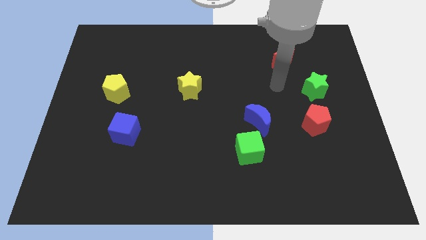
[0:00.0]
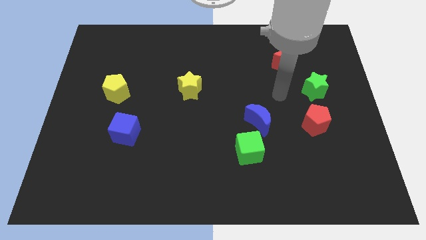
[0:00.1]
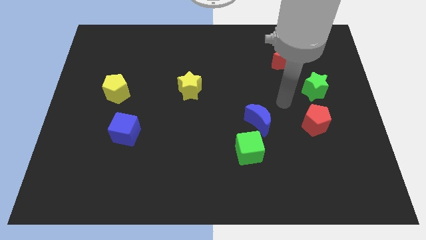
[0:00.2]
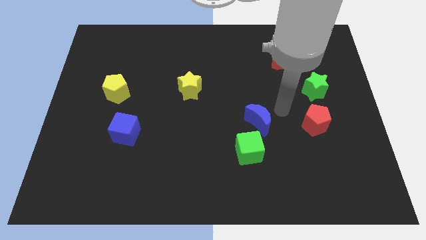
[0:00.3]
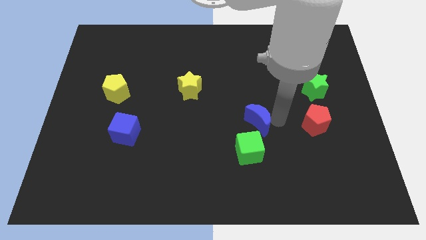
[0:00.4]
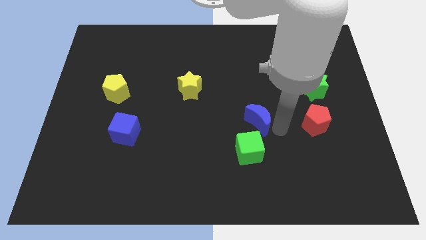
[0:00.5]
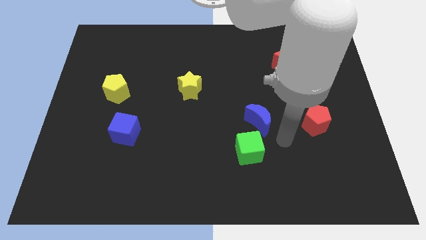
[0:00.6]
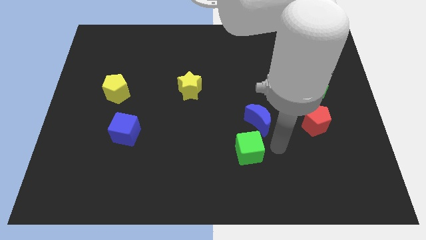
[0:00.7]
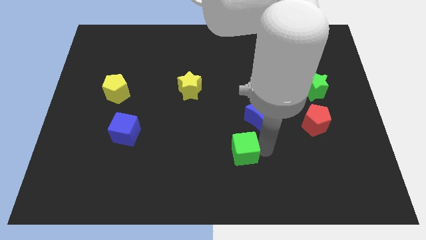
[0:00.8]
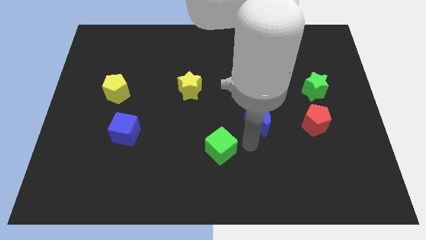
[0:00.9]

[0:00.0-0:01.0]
pull the blue moon apart from the green cube

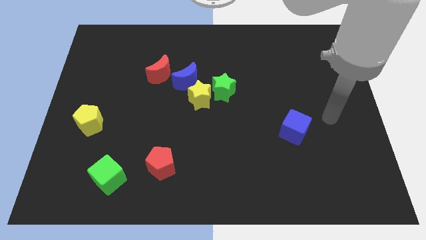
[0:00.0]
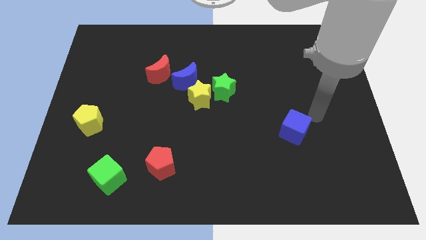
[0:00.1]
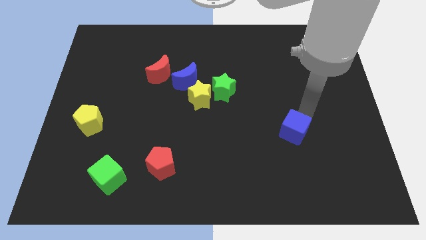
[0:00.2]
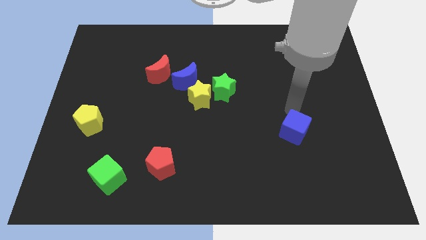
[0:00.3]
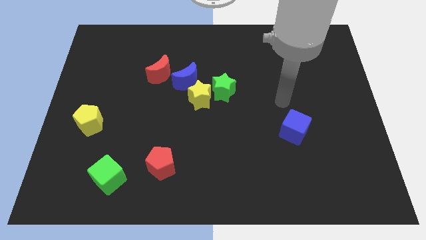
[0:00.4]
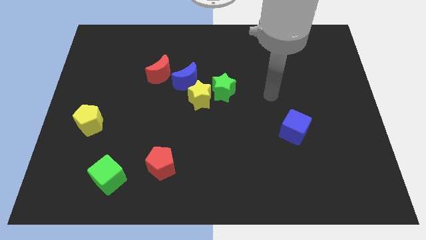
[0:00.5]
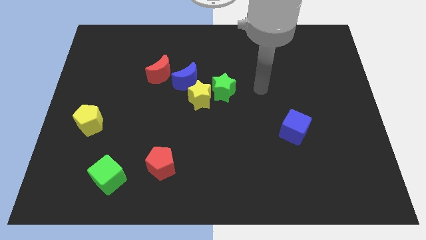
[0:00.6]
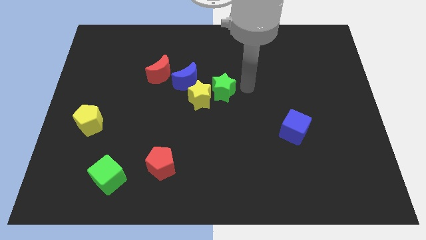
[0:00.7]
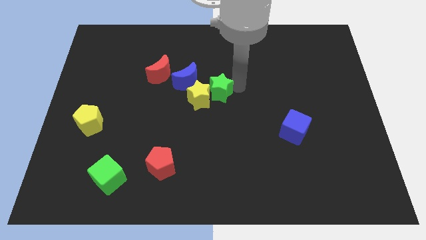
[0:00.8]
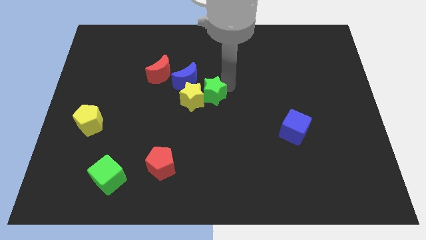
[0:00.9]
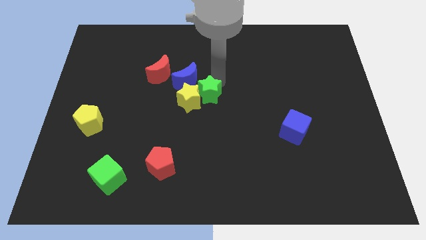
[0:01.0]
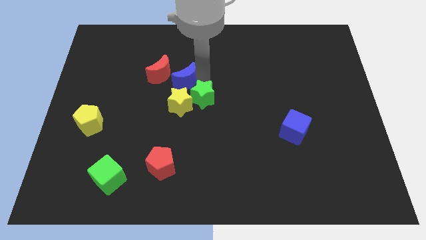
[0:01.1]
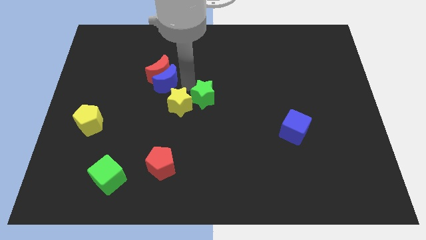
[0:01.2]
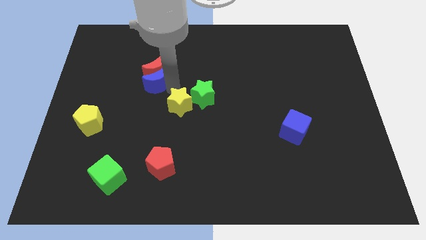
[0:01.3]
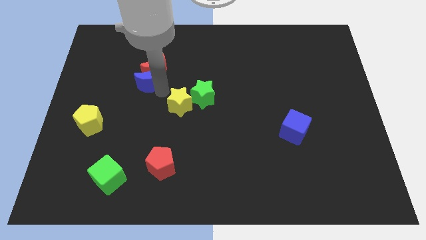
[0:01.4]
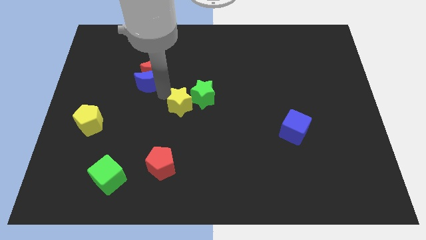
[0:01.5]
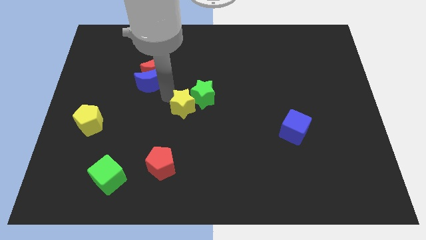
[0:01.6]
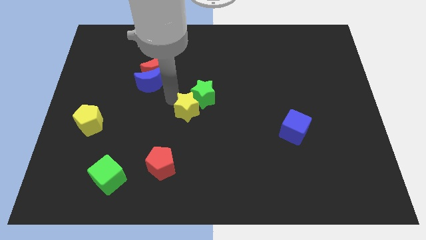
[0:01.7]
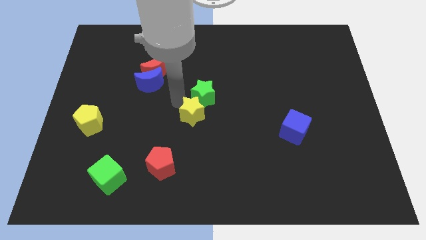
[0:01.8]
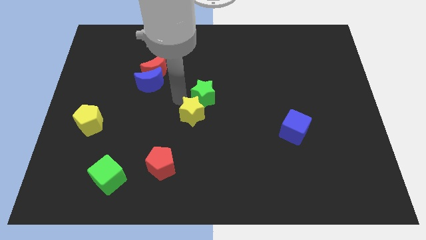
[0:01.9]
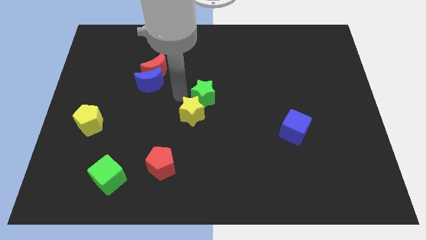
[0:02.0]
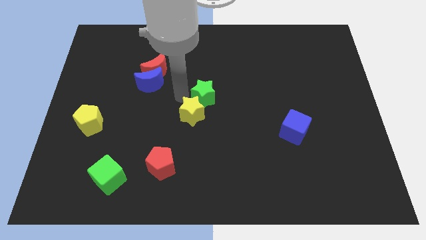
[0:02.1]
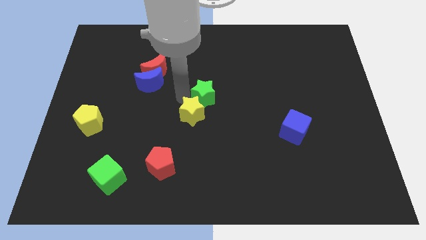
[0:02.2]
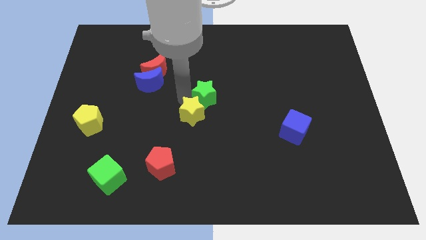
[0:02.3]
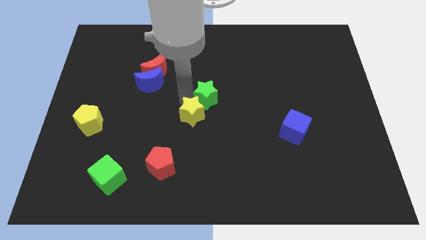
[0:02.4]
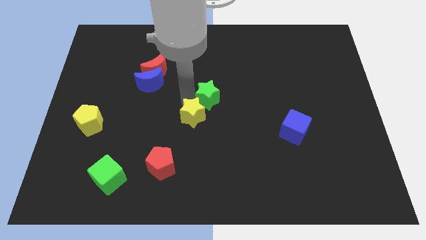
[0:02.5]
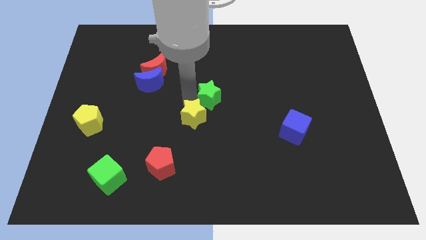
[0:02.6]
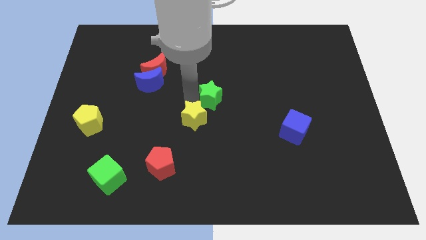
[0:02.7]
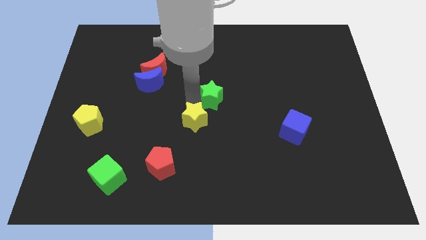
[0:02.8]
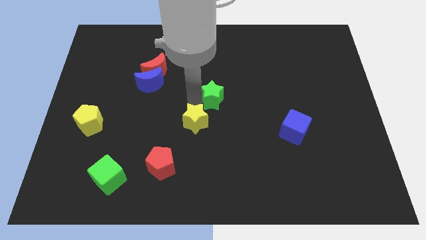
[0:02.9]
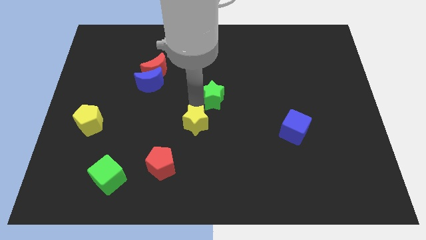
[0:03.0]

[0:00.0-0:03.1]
separate the yellow star from the green star and blue moon

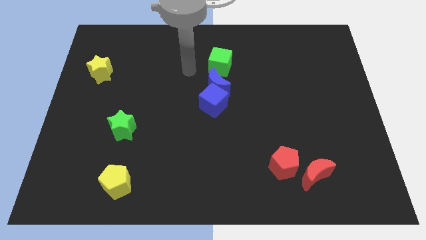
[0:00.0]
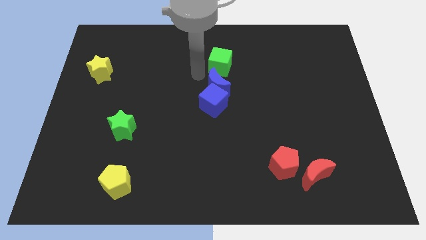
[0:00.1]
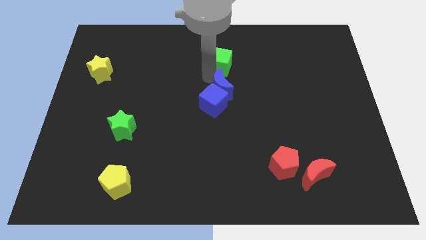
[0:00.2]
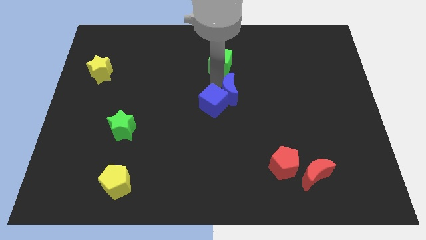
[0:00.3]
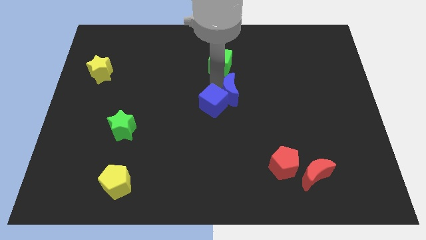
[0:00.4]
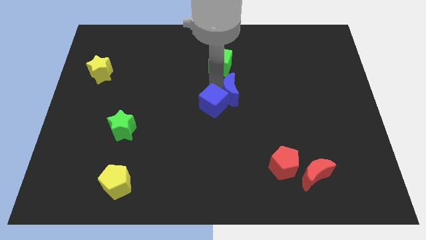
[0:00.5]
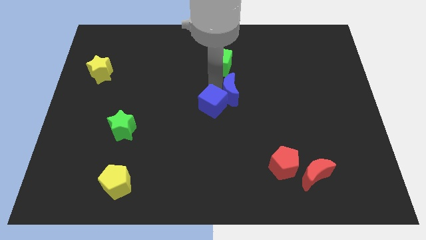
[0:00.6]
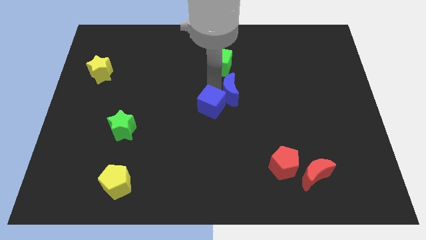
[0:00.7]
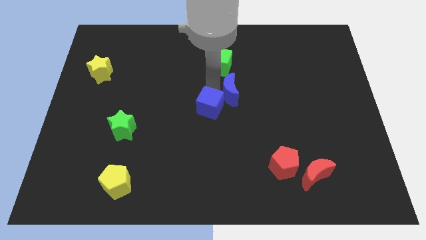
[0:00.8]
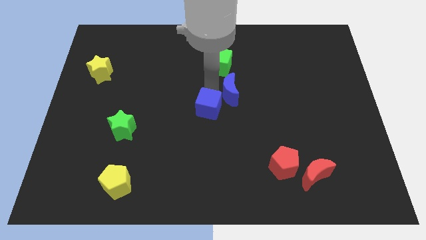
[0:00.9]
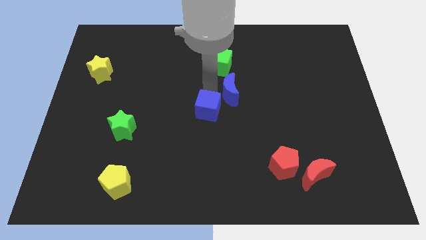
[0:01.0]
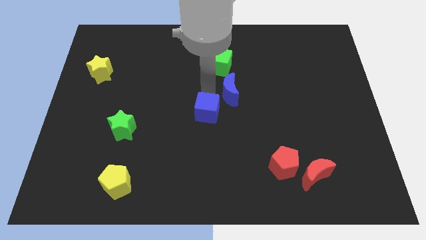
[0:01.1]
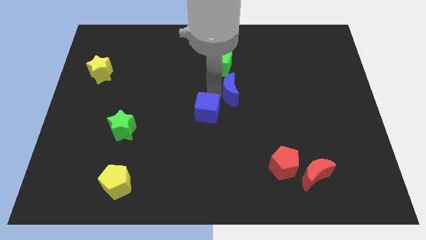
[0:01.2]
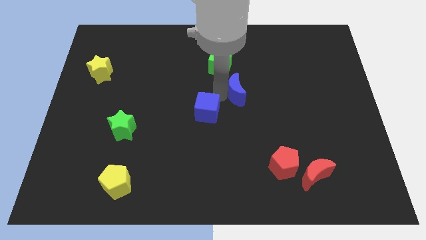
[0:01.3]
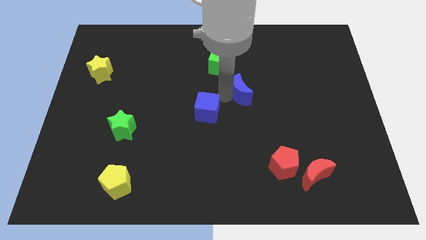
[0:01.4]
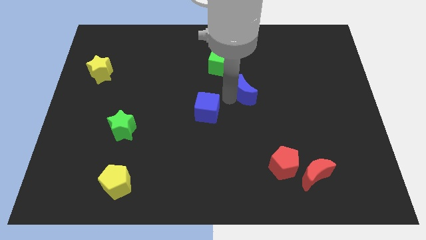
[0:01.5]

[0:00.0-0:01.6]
pull the blue cube apart from the blue moon

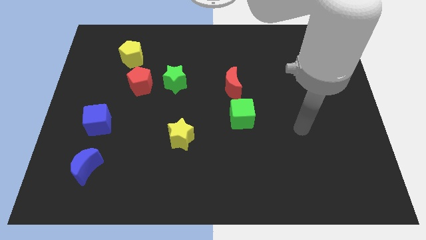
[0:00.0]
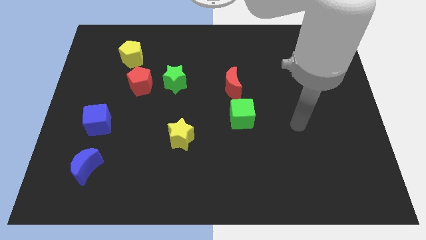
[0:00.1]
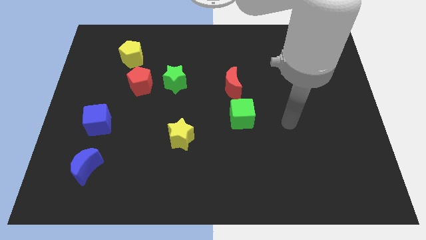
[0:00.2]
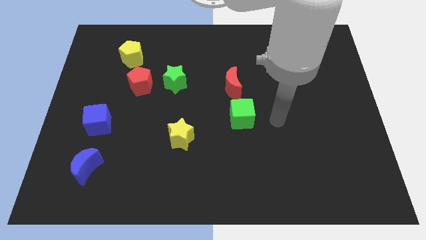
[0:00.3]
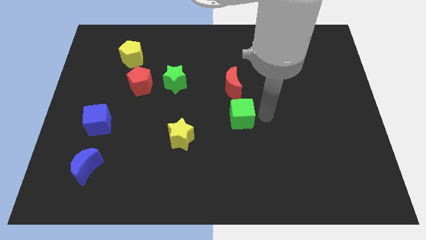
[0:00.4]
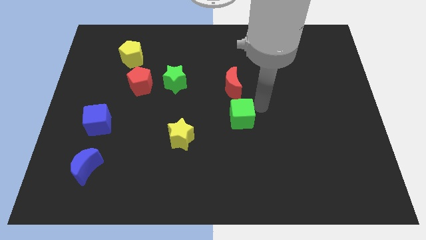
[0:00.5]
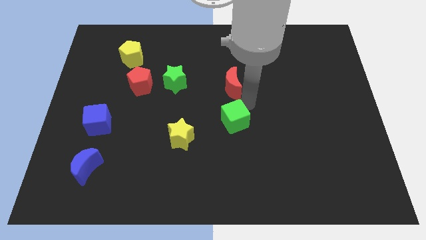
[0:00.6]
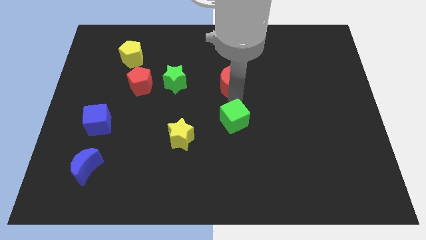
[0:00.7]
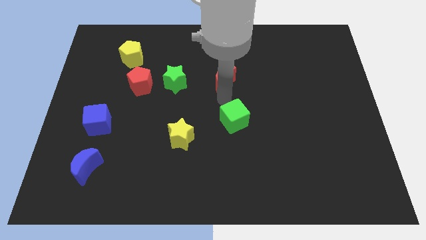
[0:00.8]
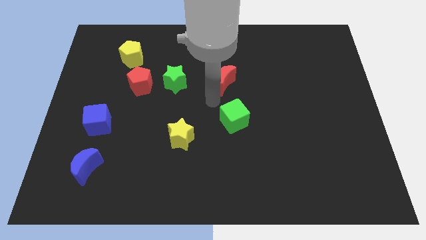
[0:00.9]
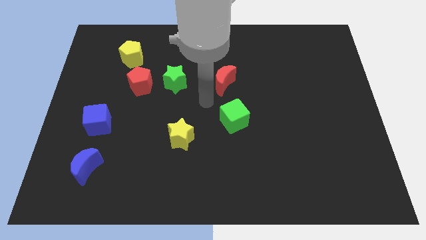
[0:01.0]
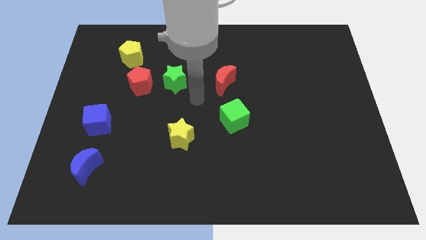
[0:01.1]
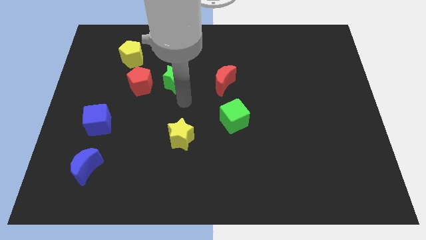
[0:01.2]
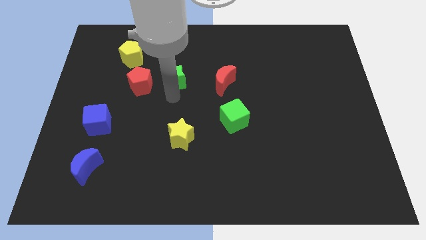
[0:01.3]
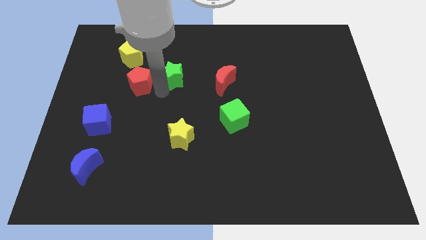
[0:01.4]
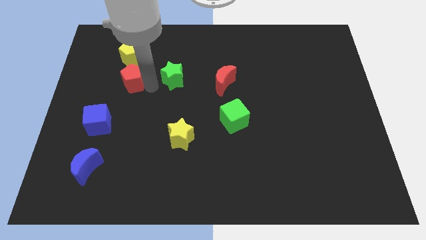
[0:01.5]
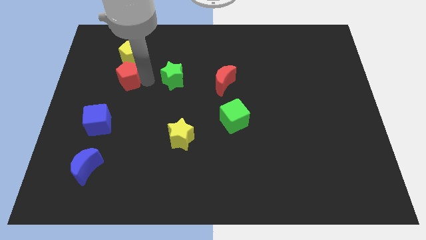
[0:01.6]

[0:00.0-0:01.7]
move the green star away from the red pentagon

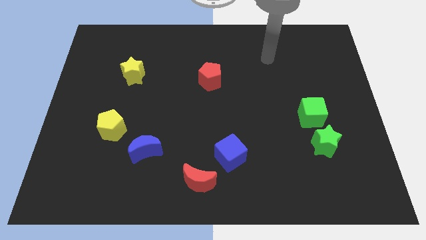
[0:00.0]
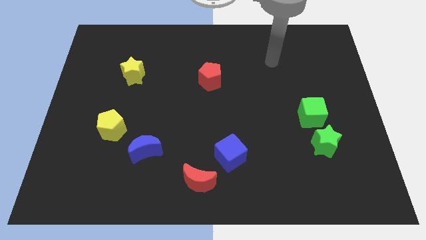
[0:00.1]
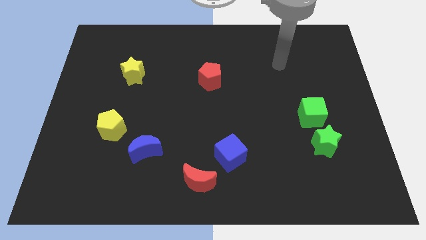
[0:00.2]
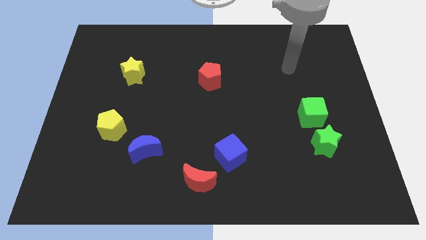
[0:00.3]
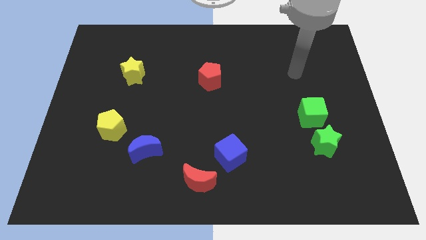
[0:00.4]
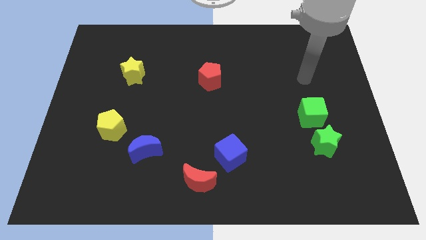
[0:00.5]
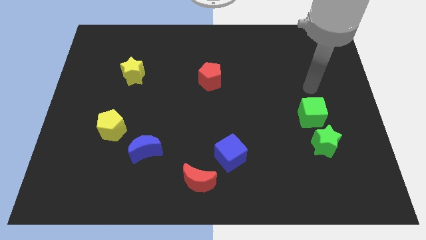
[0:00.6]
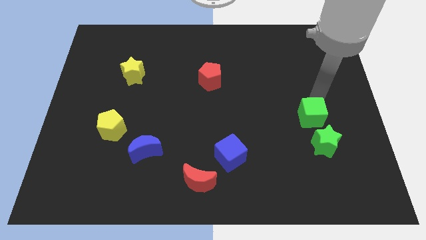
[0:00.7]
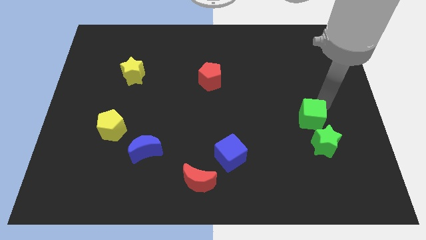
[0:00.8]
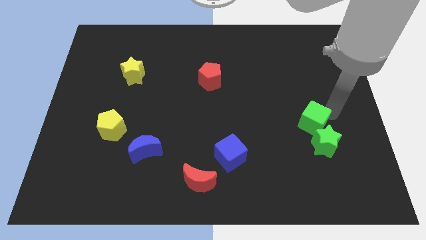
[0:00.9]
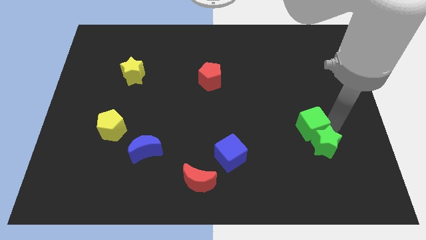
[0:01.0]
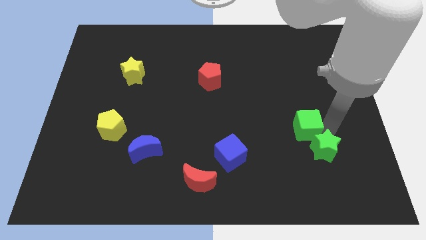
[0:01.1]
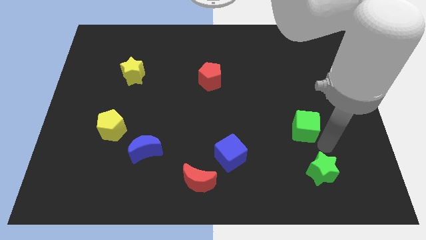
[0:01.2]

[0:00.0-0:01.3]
separate the green cube from the green star

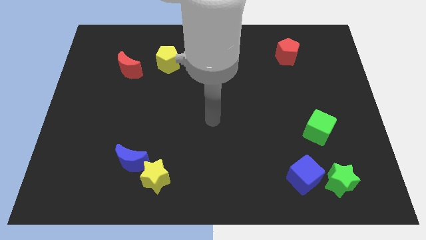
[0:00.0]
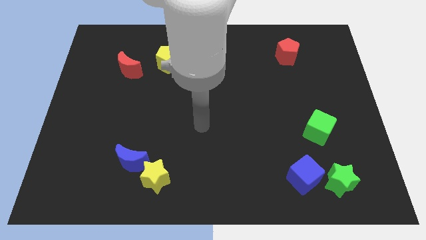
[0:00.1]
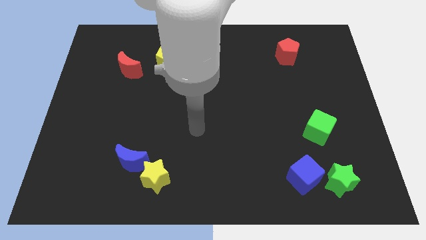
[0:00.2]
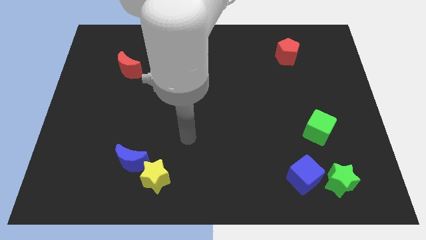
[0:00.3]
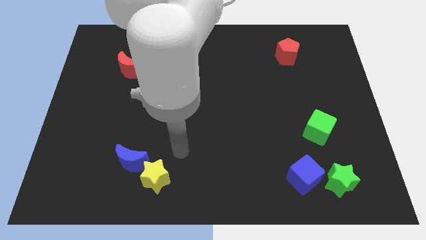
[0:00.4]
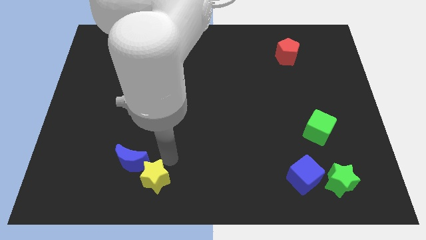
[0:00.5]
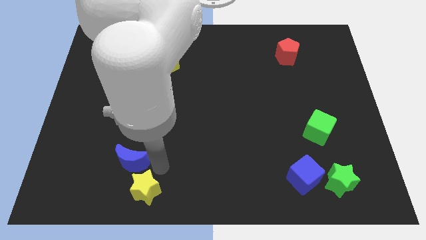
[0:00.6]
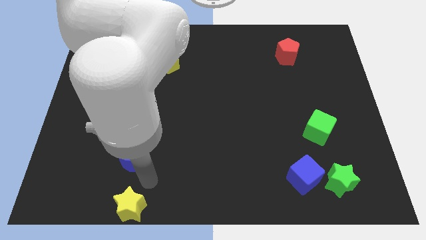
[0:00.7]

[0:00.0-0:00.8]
pull the blue moon apart from the yellow star
